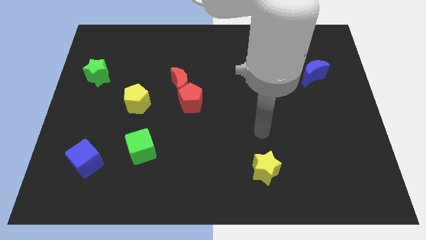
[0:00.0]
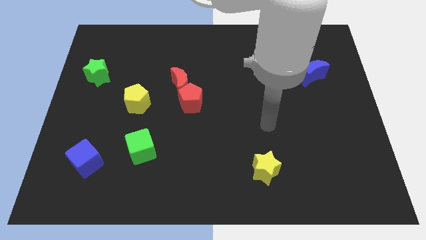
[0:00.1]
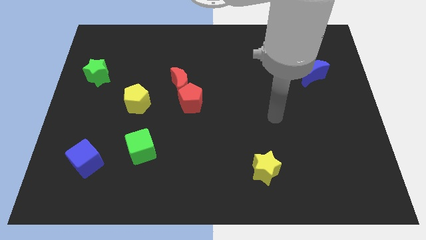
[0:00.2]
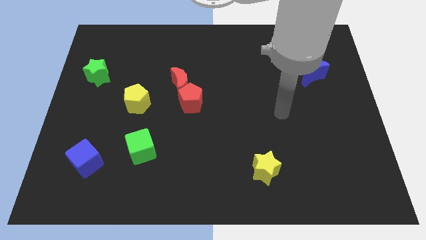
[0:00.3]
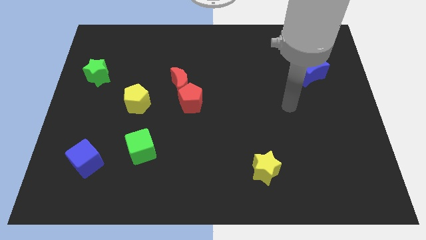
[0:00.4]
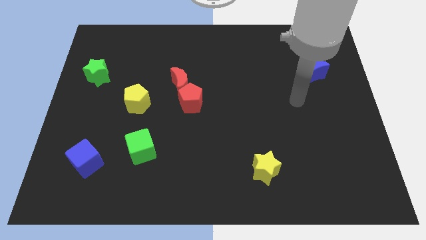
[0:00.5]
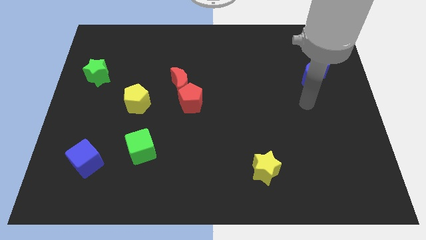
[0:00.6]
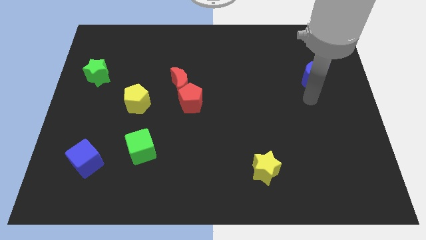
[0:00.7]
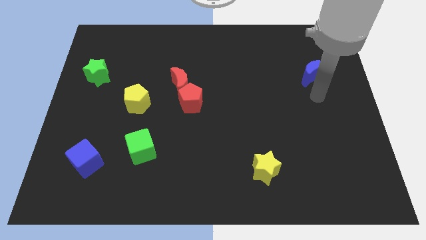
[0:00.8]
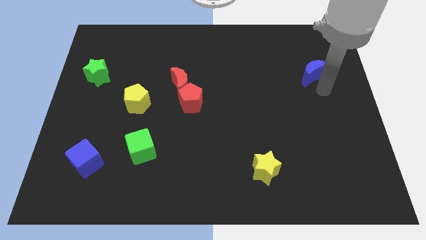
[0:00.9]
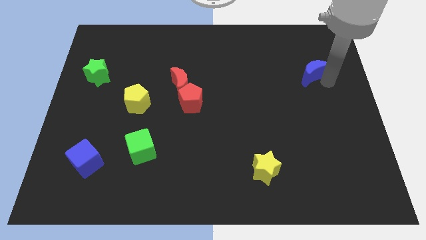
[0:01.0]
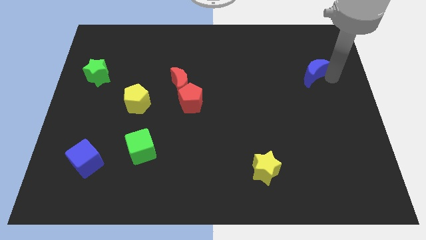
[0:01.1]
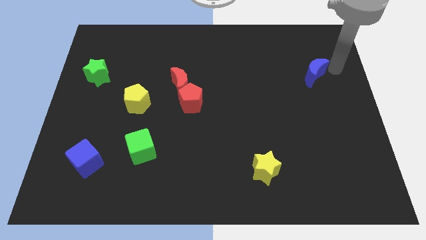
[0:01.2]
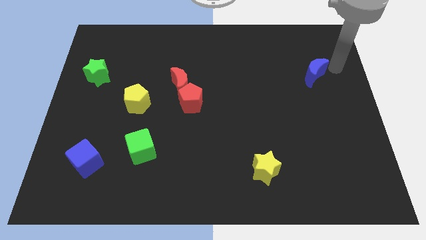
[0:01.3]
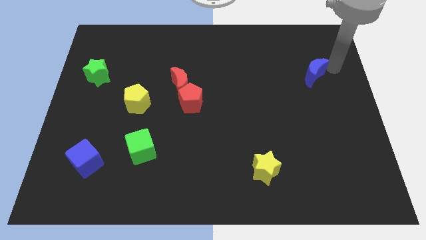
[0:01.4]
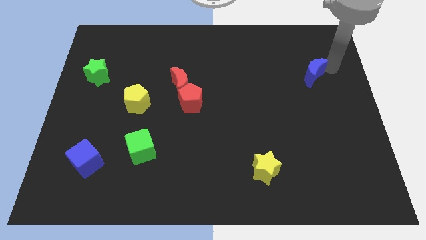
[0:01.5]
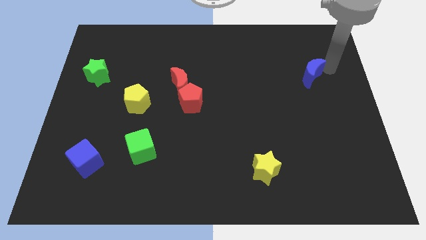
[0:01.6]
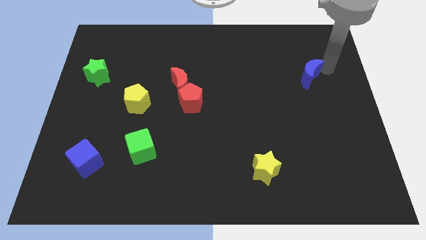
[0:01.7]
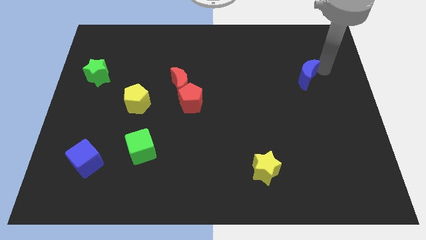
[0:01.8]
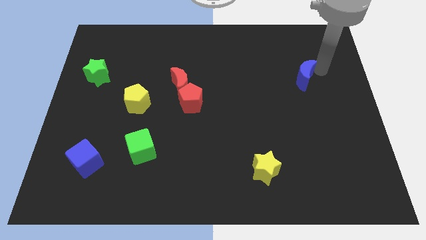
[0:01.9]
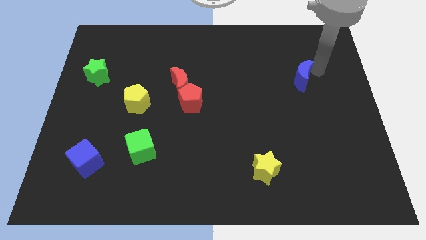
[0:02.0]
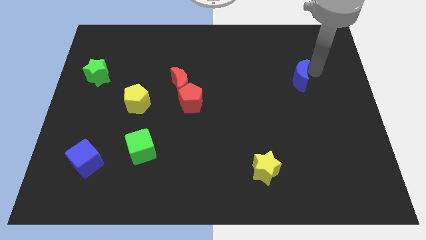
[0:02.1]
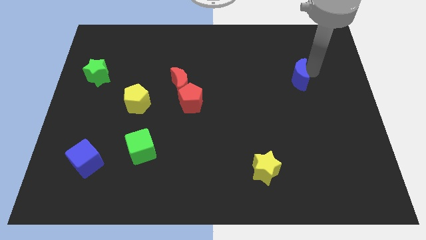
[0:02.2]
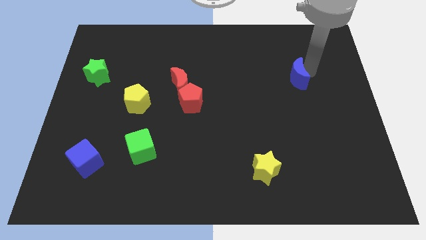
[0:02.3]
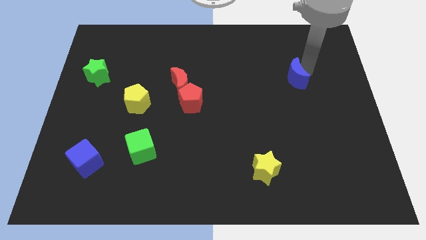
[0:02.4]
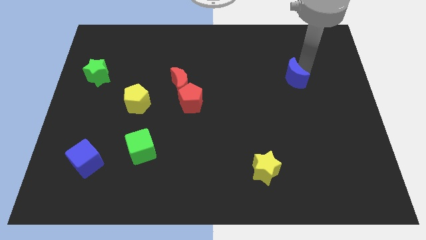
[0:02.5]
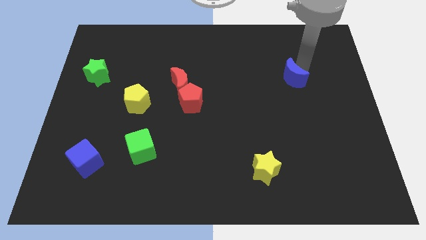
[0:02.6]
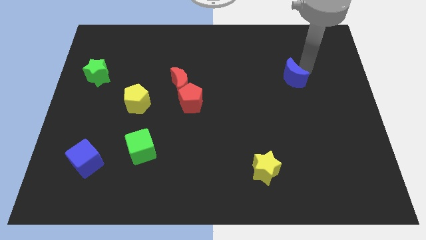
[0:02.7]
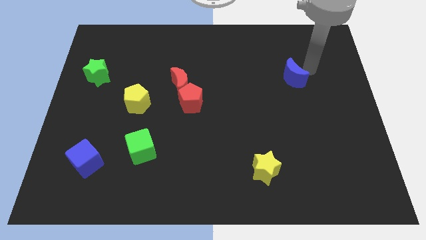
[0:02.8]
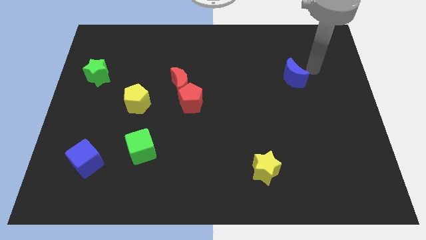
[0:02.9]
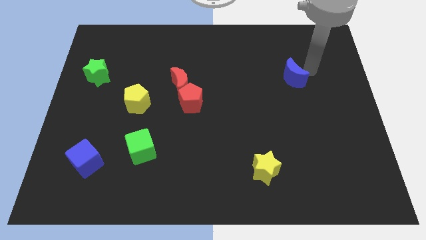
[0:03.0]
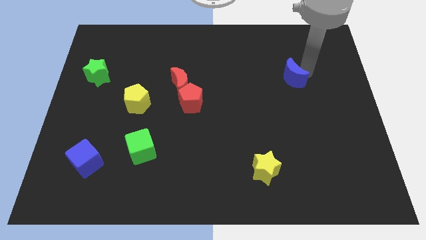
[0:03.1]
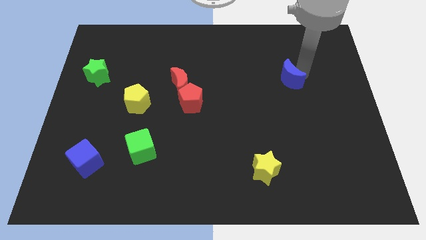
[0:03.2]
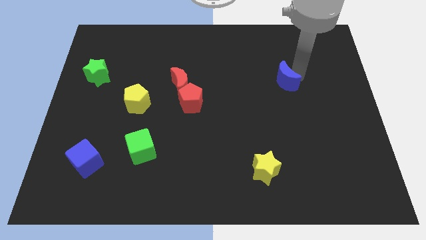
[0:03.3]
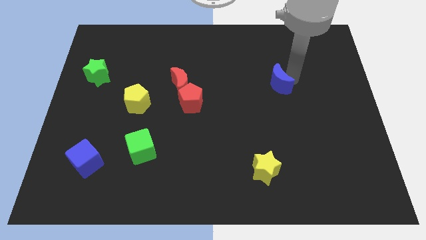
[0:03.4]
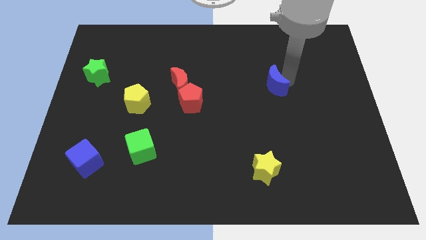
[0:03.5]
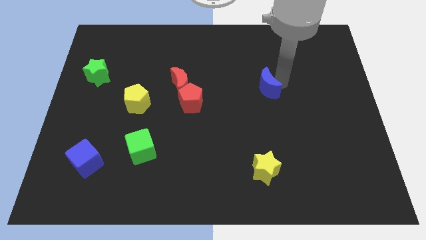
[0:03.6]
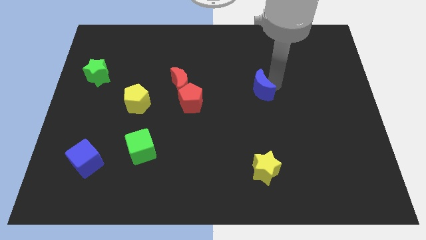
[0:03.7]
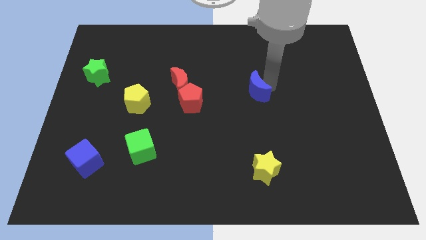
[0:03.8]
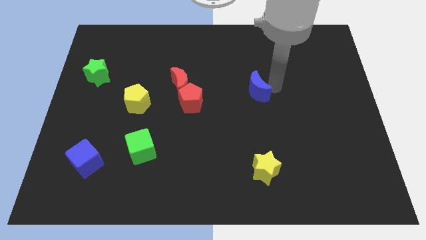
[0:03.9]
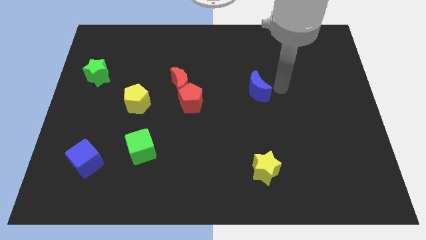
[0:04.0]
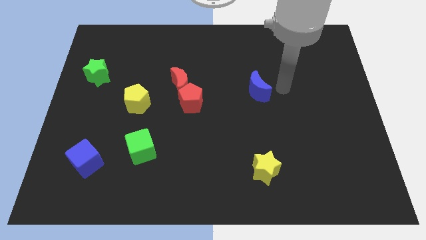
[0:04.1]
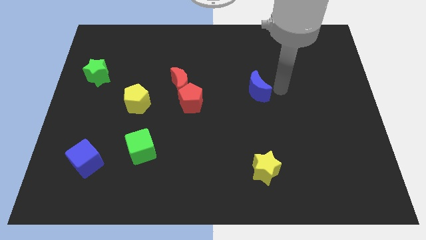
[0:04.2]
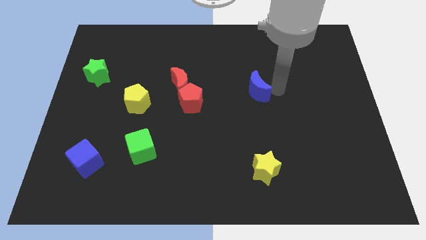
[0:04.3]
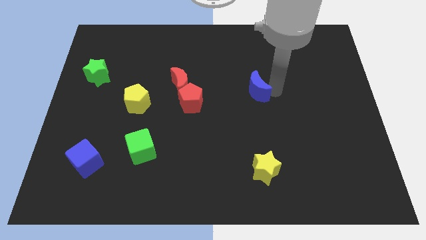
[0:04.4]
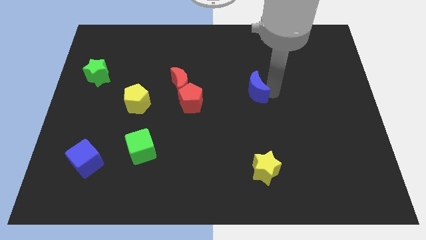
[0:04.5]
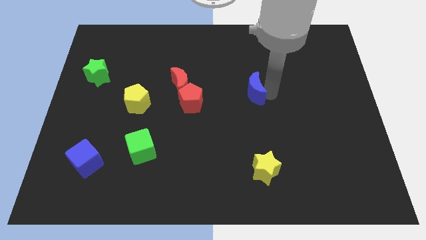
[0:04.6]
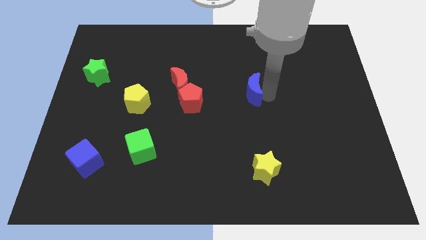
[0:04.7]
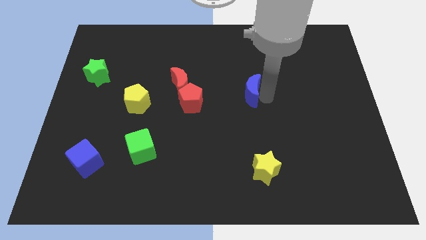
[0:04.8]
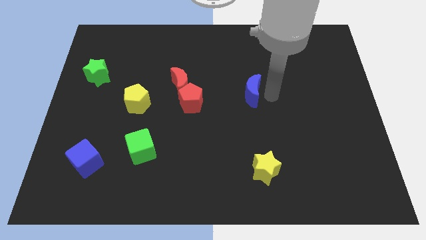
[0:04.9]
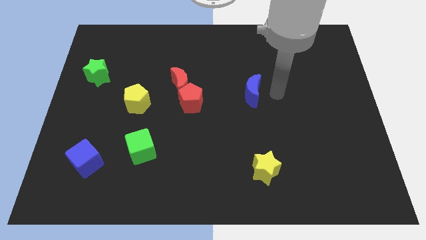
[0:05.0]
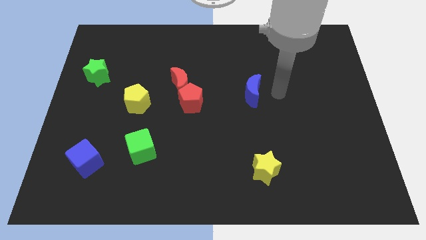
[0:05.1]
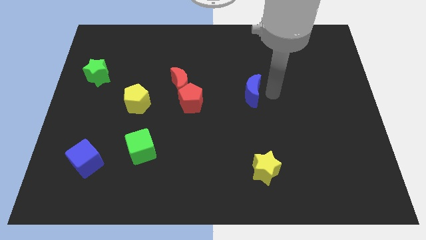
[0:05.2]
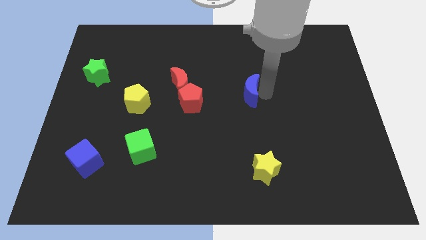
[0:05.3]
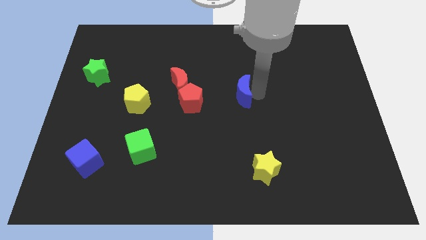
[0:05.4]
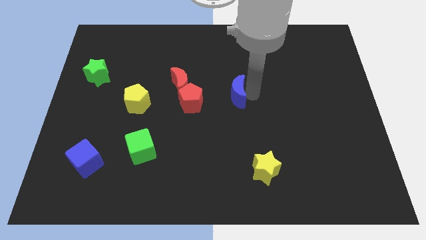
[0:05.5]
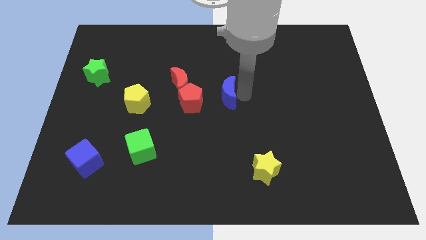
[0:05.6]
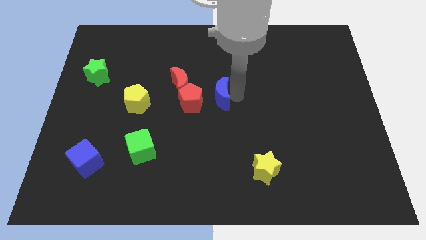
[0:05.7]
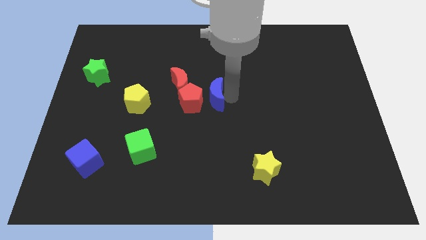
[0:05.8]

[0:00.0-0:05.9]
move the blue moon towards the red pentagon
